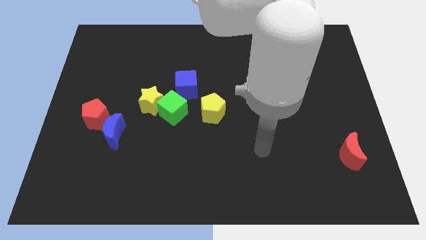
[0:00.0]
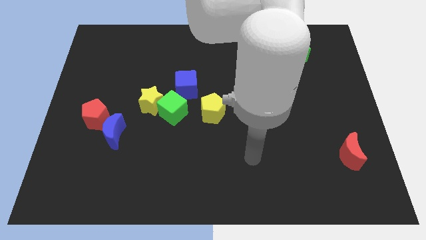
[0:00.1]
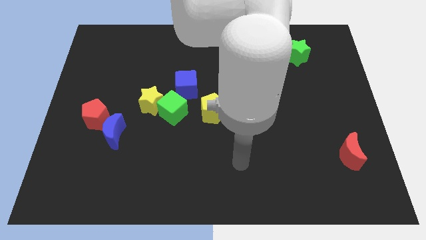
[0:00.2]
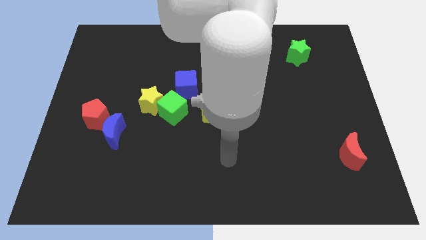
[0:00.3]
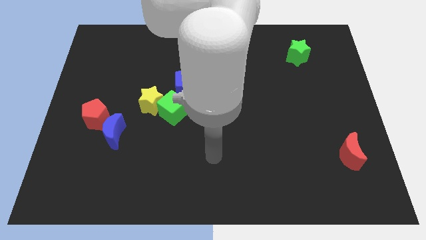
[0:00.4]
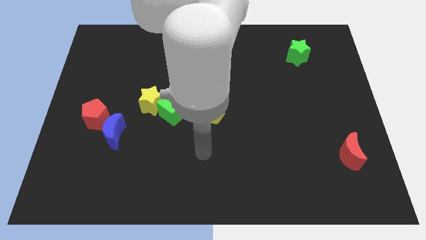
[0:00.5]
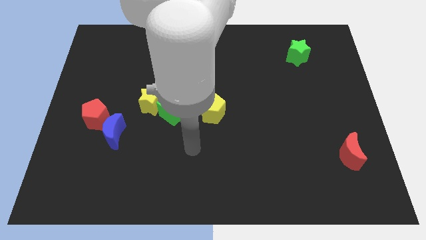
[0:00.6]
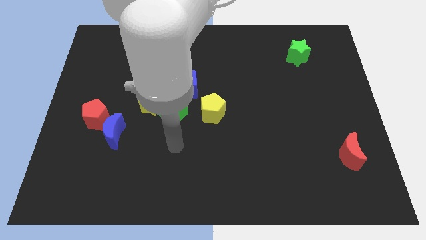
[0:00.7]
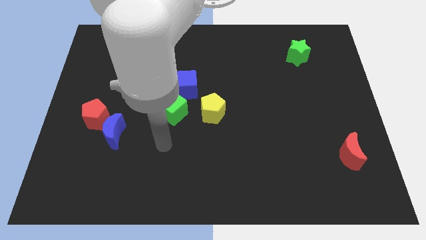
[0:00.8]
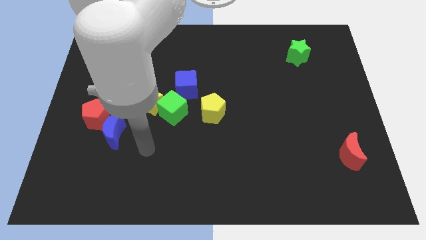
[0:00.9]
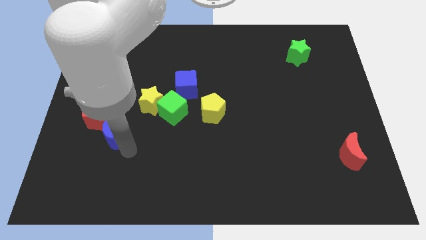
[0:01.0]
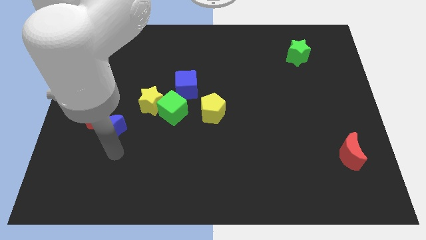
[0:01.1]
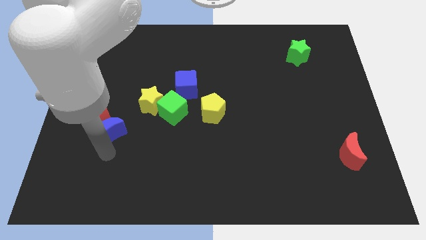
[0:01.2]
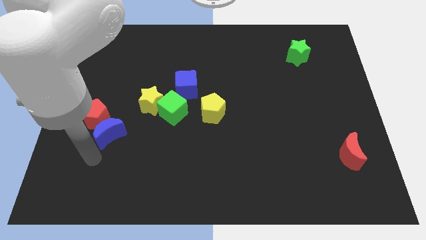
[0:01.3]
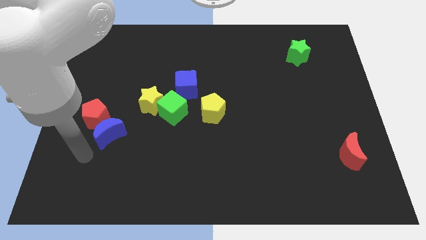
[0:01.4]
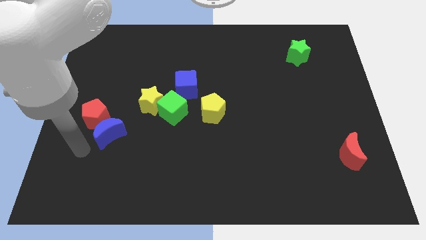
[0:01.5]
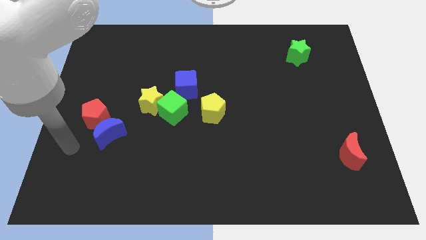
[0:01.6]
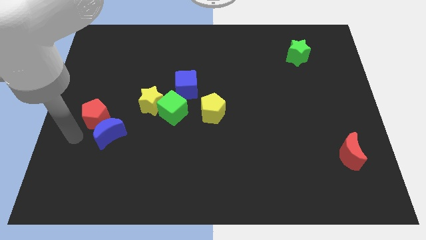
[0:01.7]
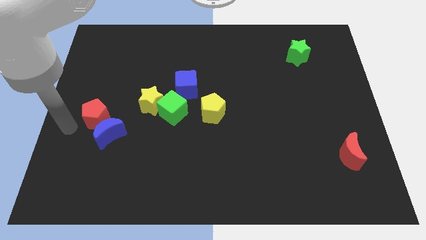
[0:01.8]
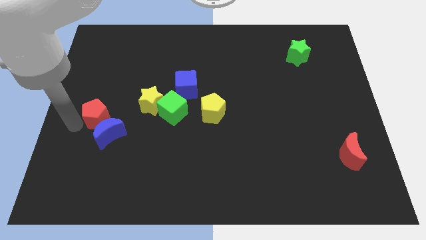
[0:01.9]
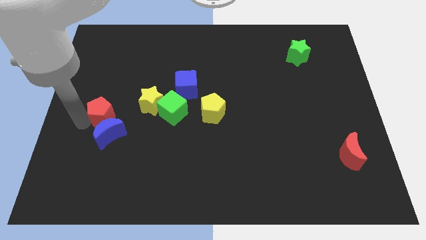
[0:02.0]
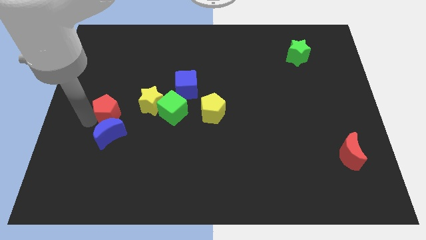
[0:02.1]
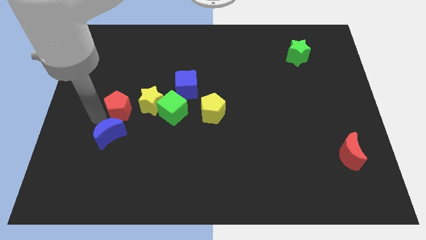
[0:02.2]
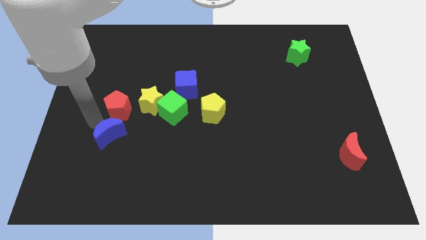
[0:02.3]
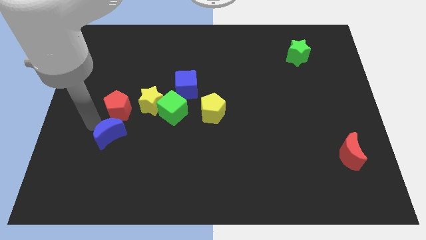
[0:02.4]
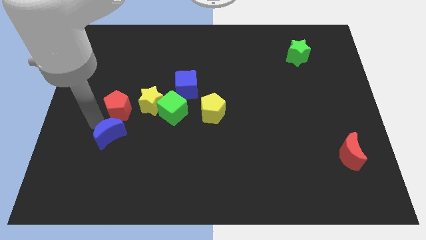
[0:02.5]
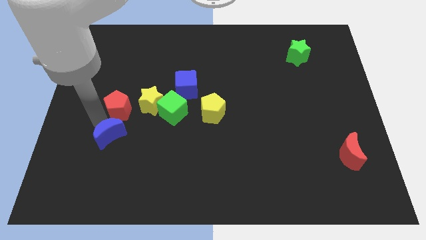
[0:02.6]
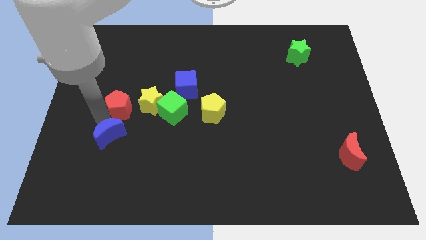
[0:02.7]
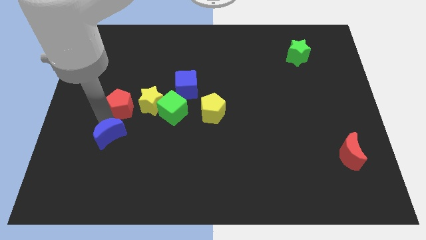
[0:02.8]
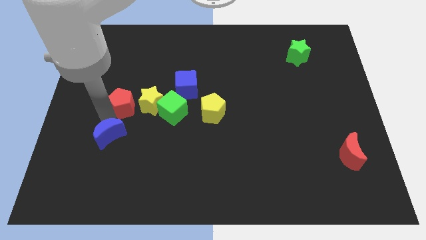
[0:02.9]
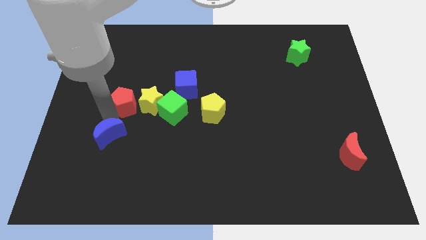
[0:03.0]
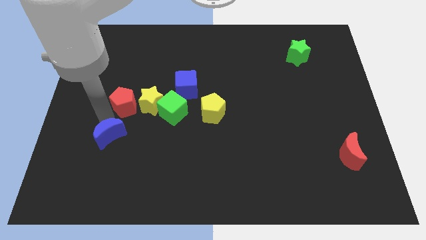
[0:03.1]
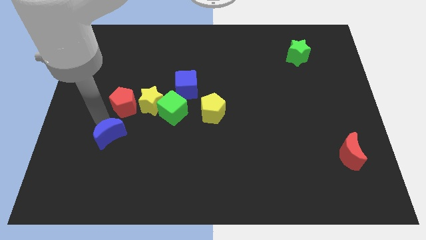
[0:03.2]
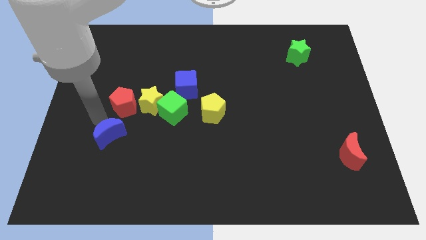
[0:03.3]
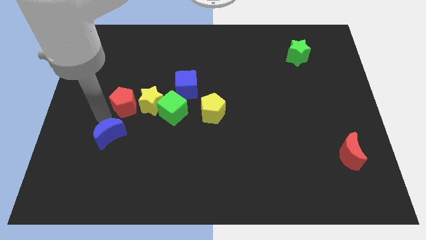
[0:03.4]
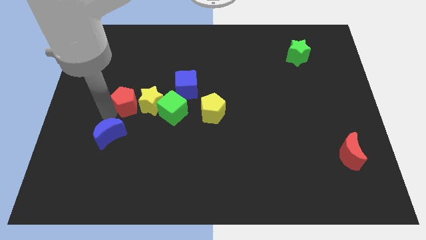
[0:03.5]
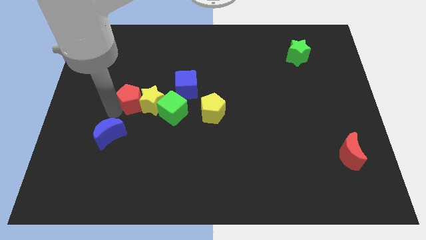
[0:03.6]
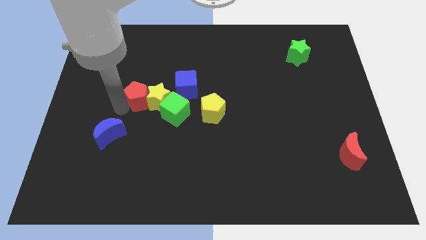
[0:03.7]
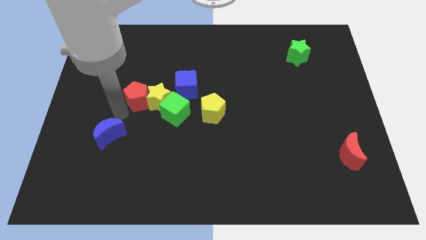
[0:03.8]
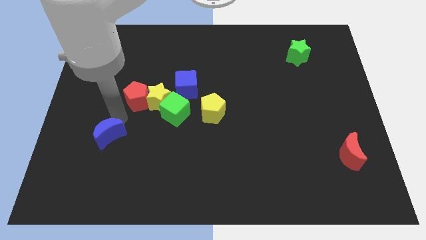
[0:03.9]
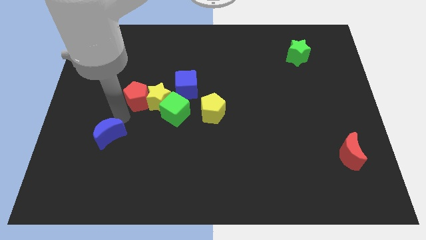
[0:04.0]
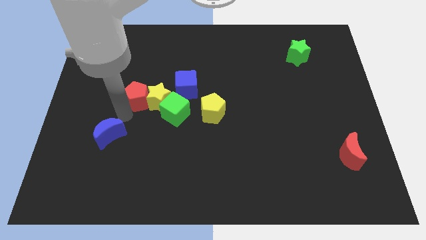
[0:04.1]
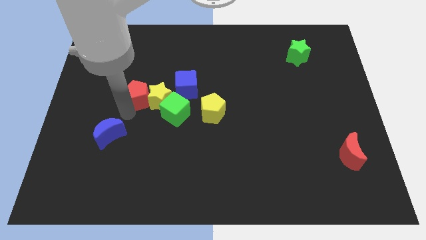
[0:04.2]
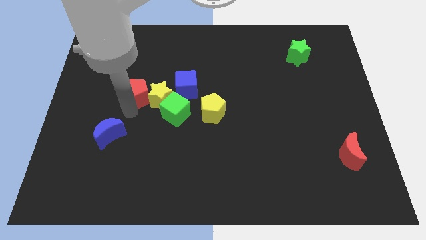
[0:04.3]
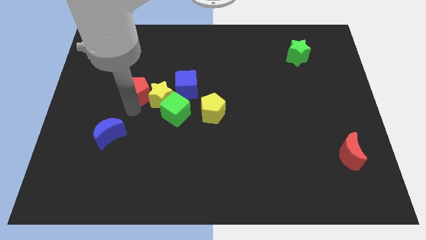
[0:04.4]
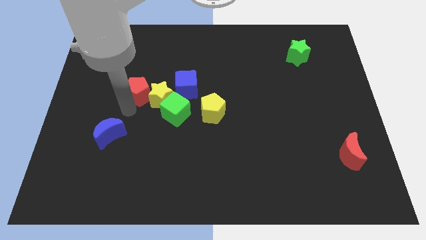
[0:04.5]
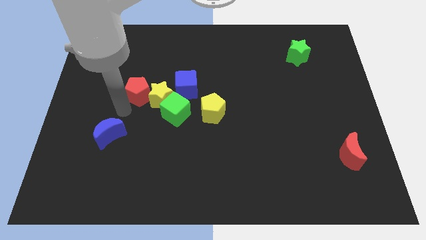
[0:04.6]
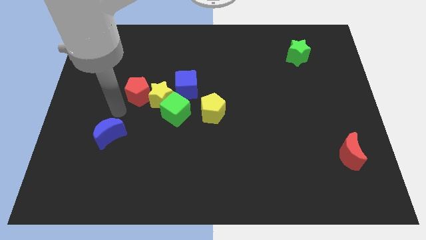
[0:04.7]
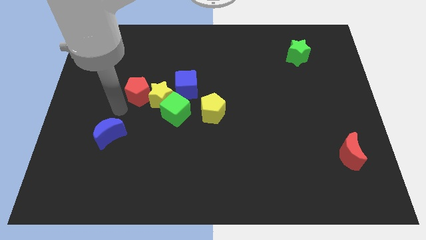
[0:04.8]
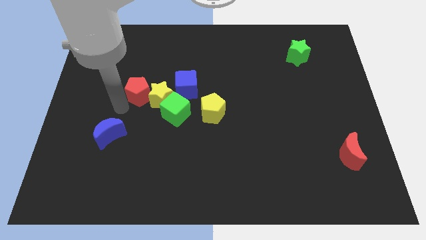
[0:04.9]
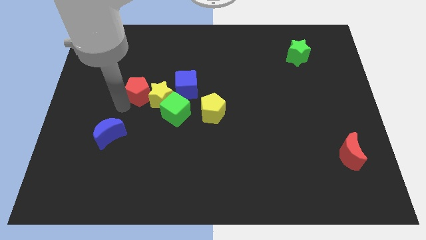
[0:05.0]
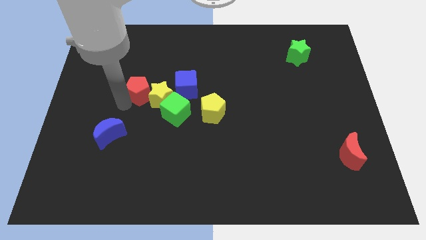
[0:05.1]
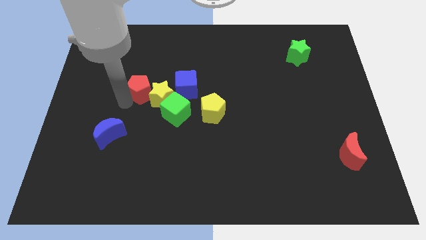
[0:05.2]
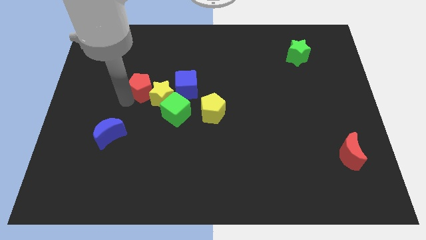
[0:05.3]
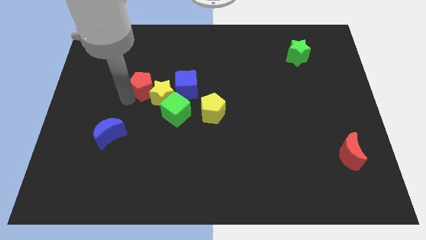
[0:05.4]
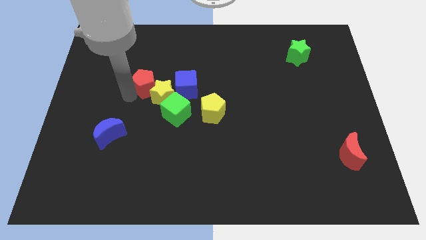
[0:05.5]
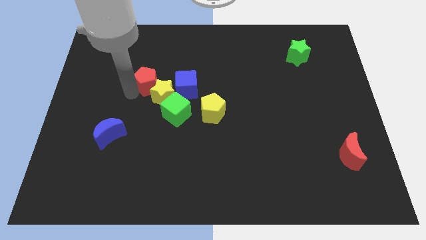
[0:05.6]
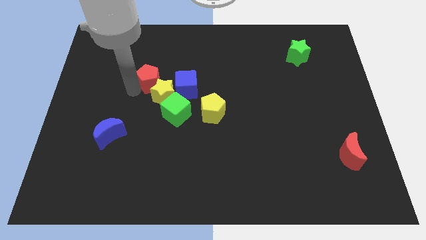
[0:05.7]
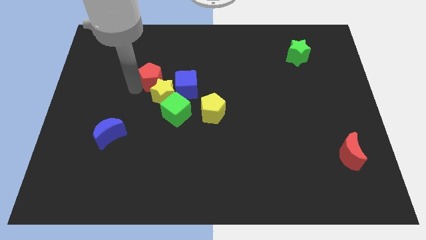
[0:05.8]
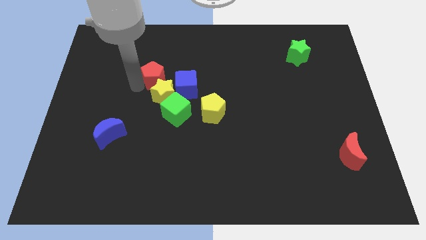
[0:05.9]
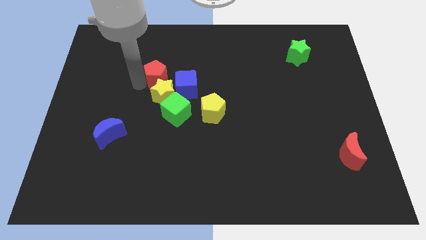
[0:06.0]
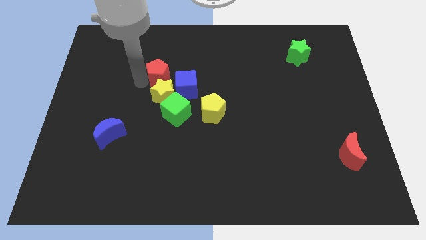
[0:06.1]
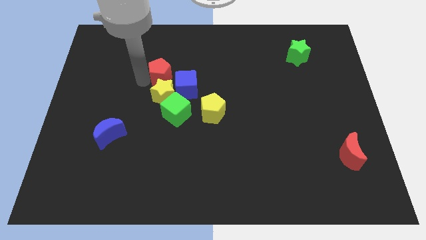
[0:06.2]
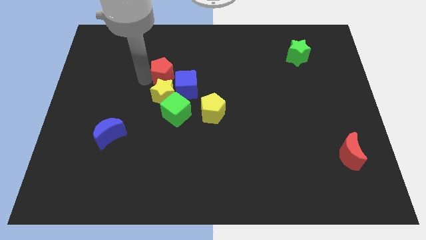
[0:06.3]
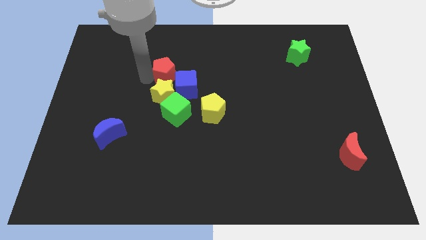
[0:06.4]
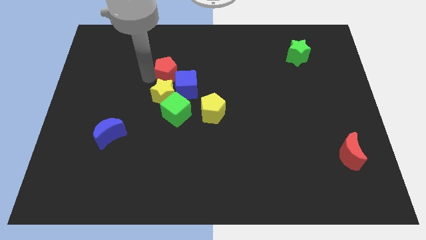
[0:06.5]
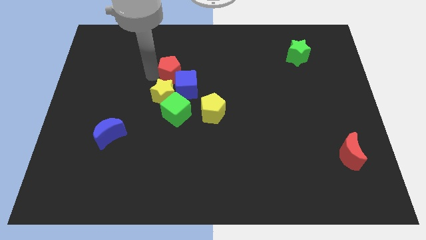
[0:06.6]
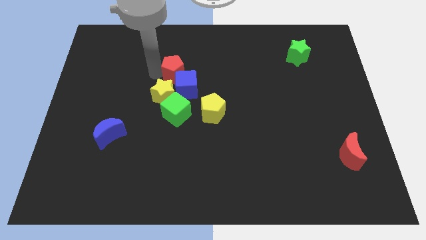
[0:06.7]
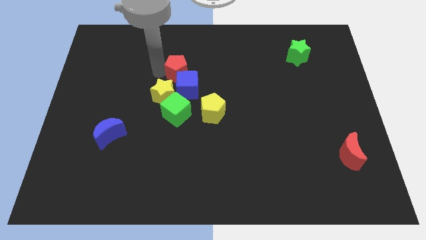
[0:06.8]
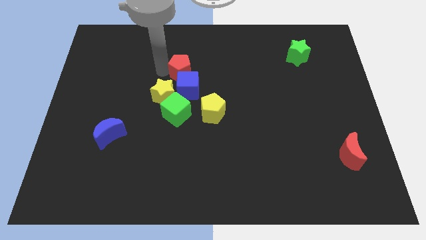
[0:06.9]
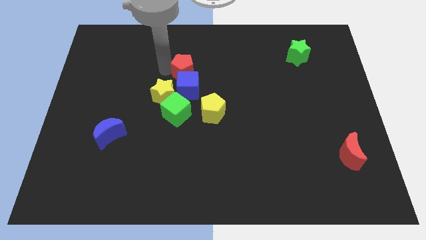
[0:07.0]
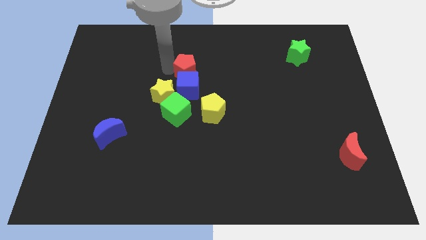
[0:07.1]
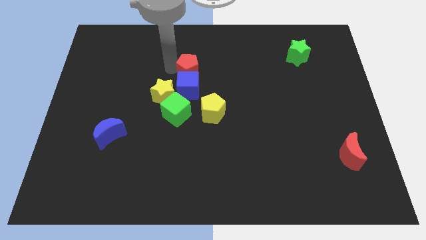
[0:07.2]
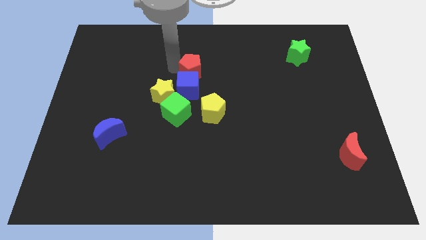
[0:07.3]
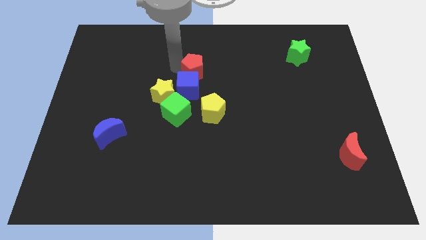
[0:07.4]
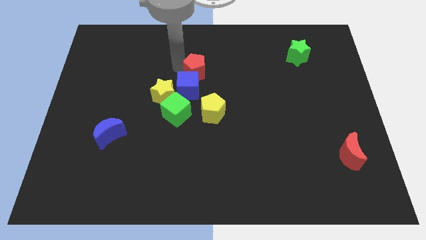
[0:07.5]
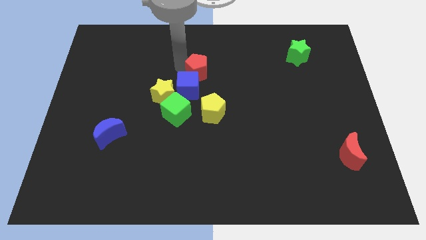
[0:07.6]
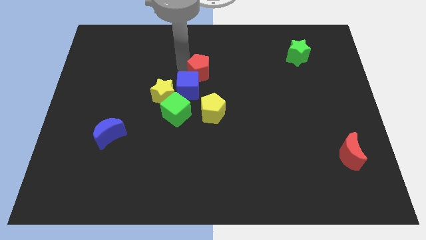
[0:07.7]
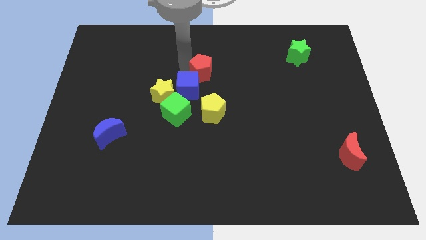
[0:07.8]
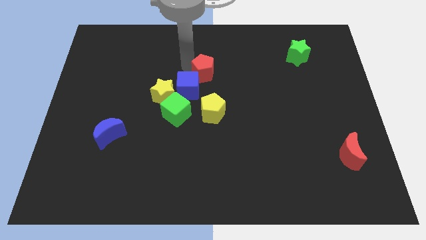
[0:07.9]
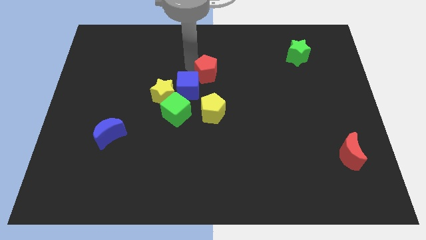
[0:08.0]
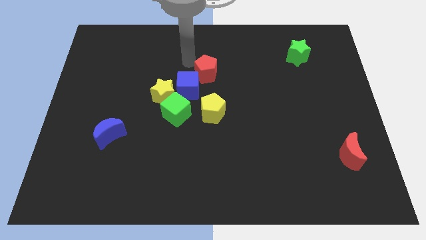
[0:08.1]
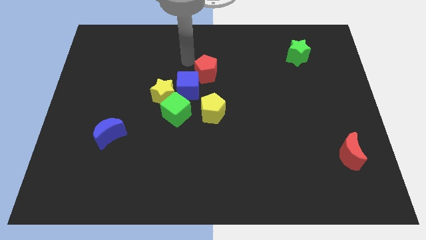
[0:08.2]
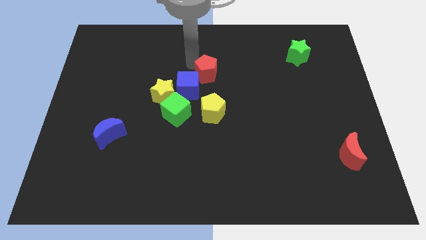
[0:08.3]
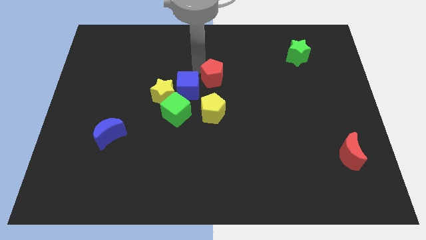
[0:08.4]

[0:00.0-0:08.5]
push the red pentagon right of the blue cube
